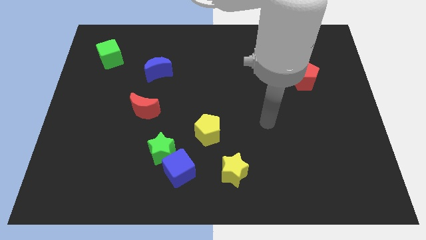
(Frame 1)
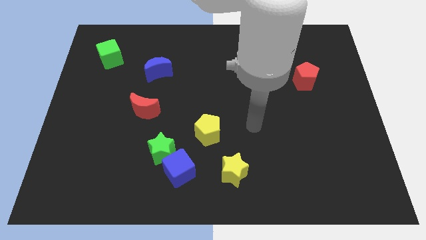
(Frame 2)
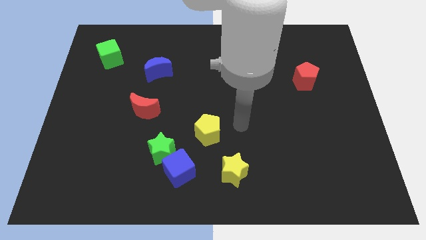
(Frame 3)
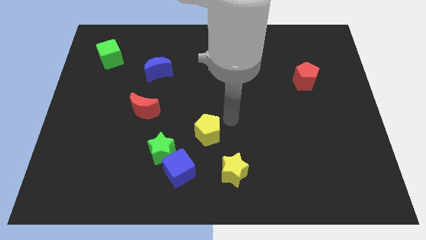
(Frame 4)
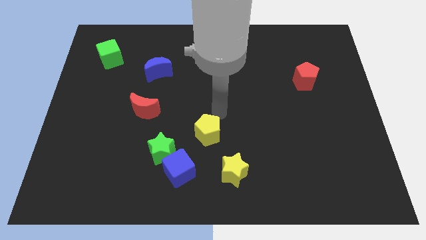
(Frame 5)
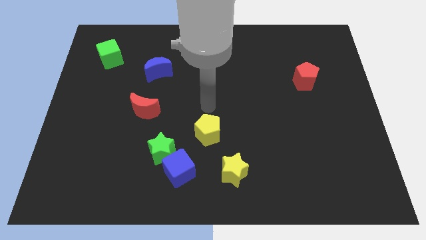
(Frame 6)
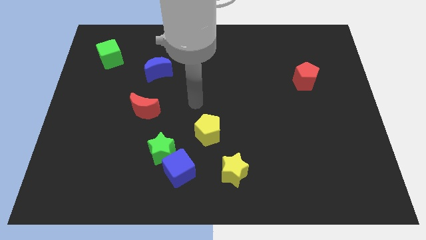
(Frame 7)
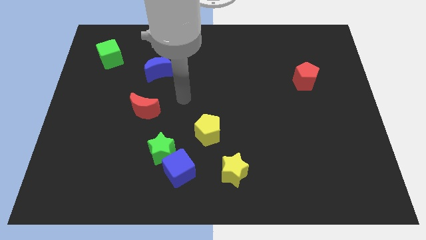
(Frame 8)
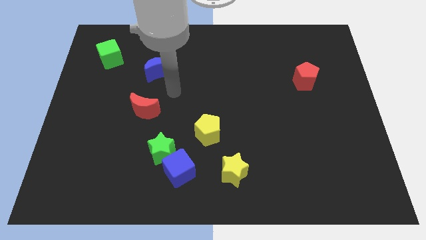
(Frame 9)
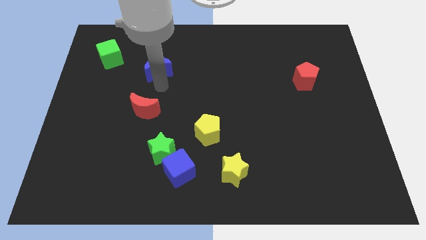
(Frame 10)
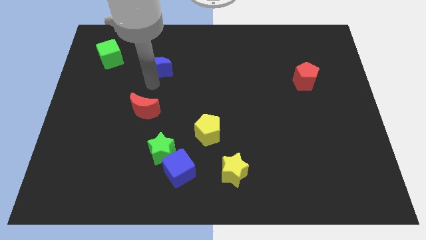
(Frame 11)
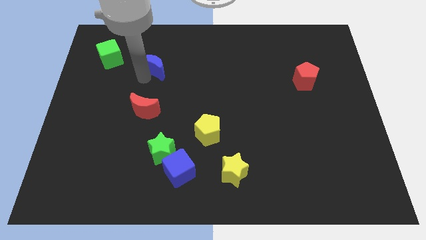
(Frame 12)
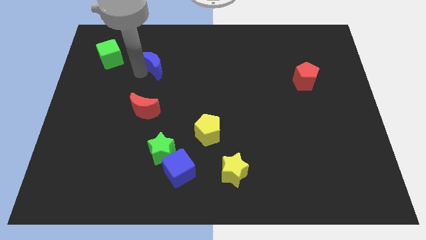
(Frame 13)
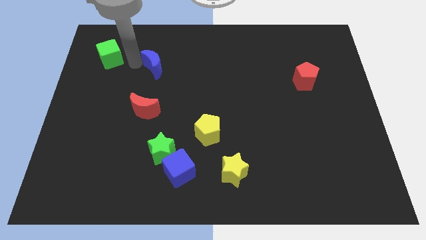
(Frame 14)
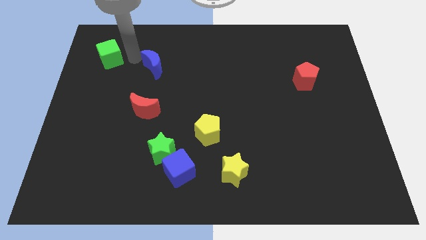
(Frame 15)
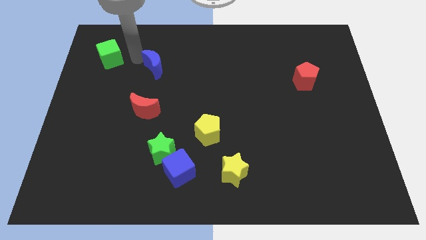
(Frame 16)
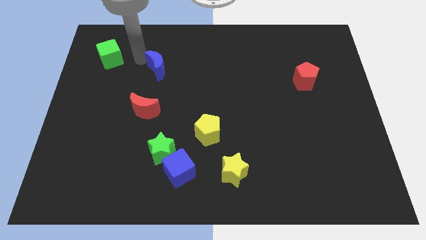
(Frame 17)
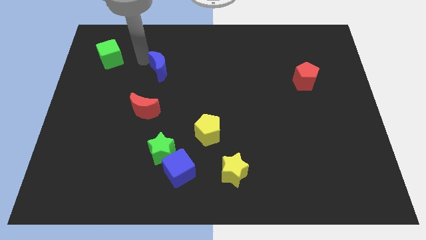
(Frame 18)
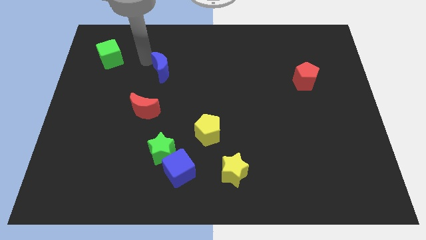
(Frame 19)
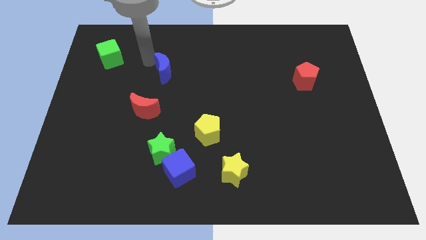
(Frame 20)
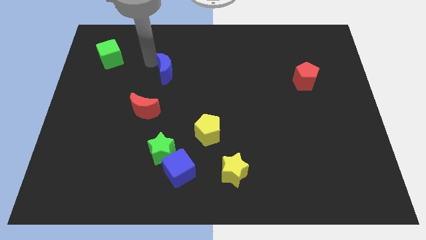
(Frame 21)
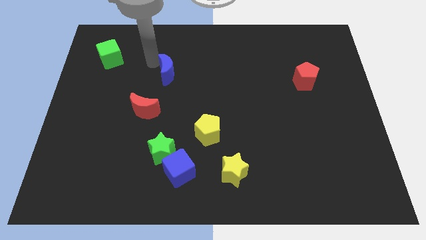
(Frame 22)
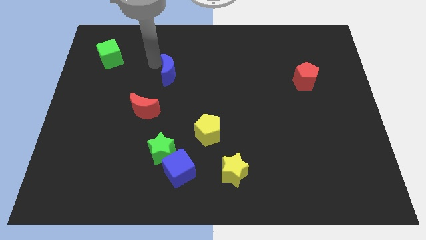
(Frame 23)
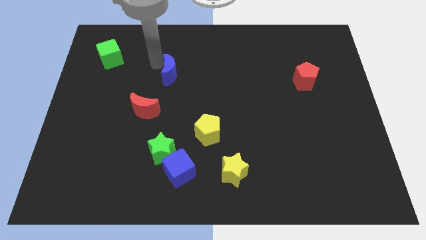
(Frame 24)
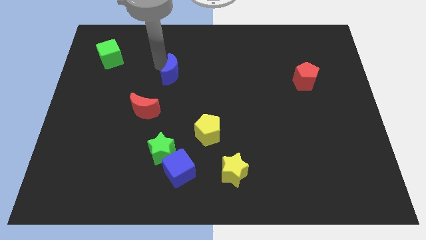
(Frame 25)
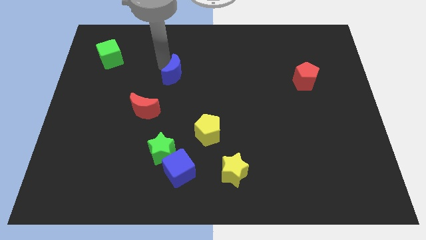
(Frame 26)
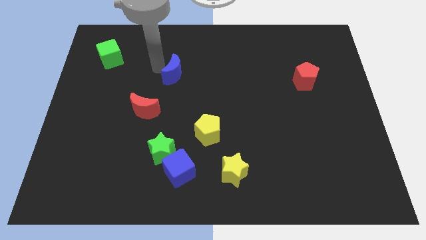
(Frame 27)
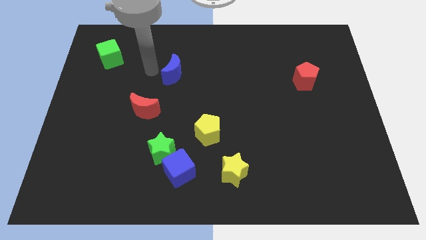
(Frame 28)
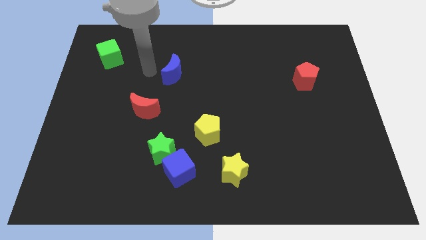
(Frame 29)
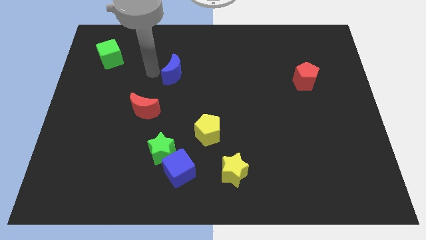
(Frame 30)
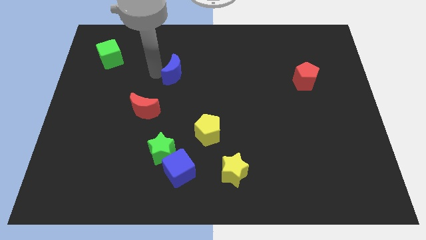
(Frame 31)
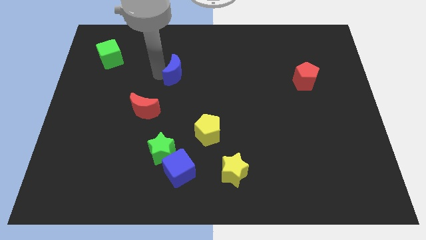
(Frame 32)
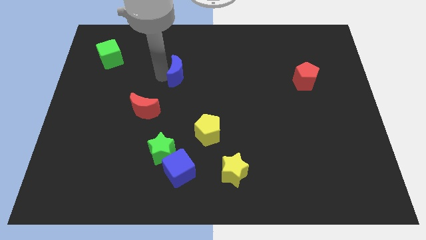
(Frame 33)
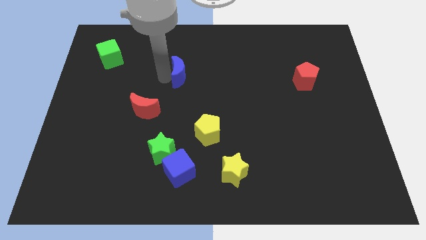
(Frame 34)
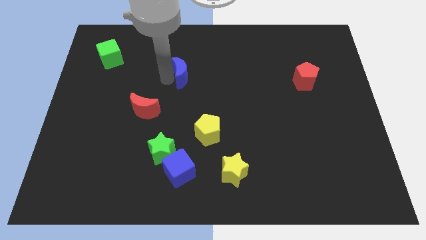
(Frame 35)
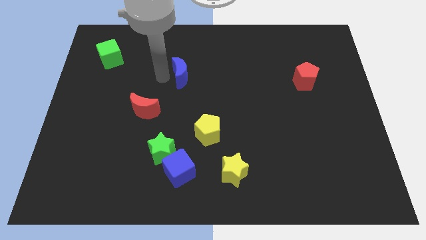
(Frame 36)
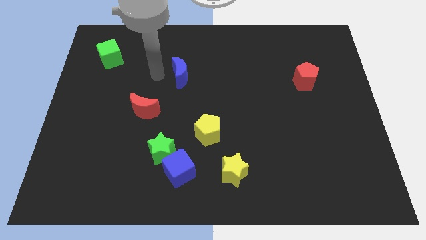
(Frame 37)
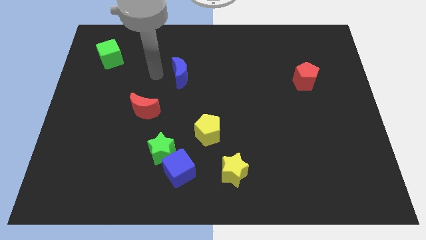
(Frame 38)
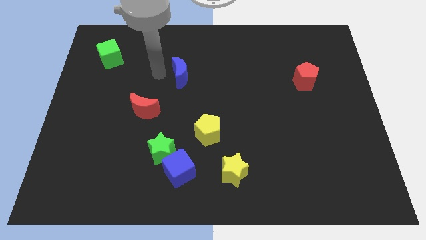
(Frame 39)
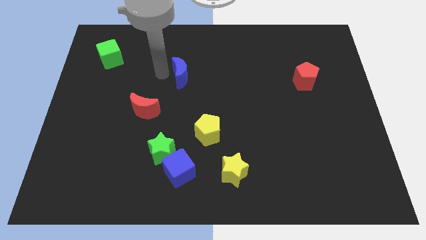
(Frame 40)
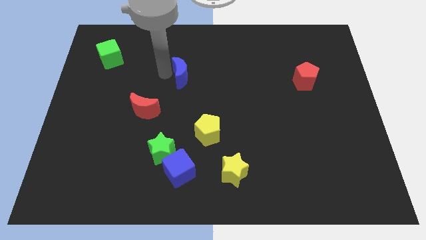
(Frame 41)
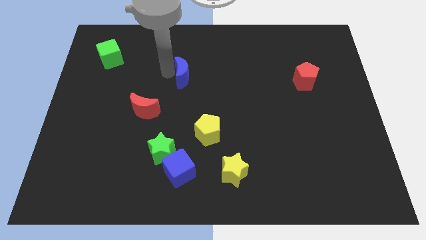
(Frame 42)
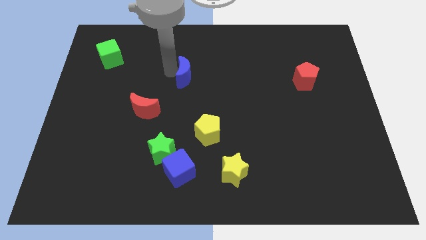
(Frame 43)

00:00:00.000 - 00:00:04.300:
slightly push the blue moon right

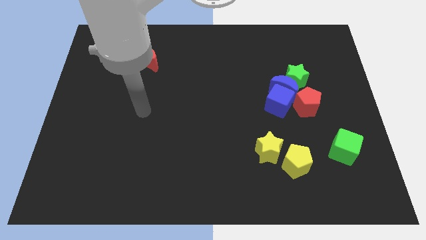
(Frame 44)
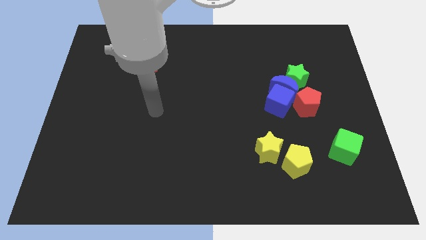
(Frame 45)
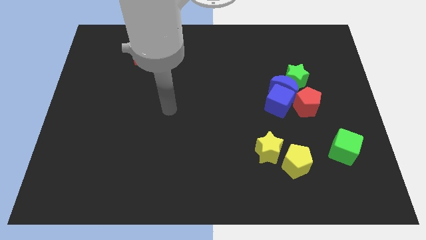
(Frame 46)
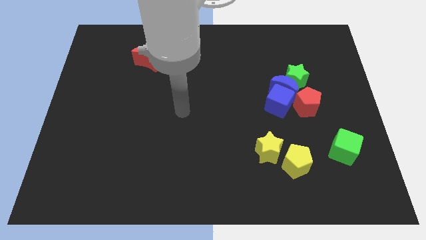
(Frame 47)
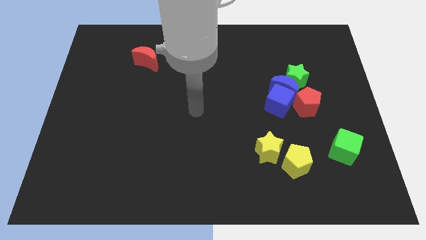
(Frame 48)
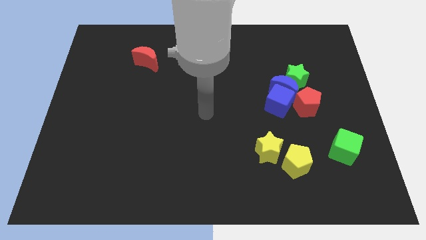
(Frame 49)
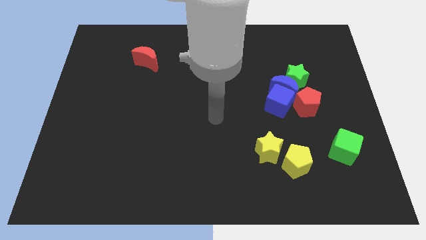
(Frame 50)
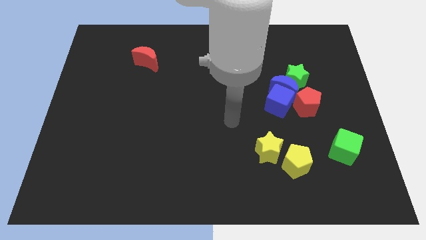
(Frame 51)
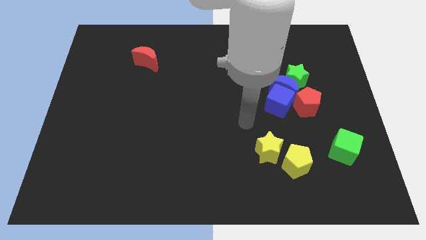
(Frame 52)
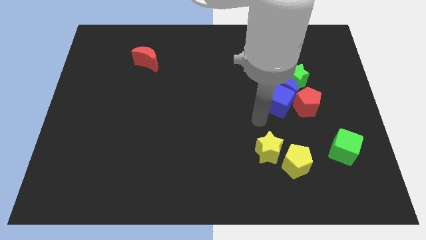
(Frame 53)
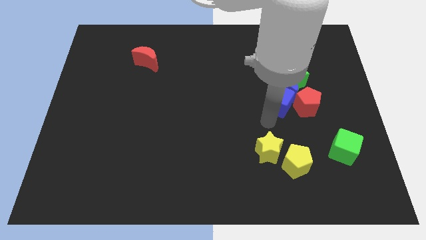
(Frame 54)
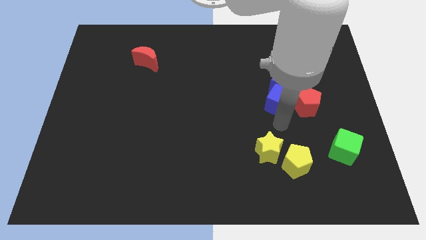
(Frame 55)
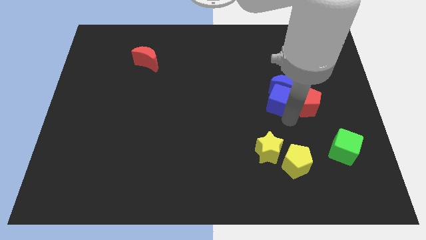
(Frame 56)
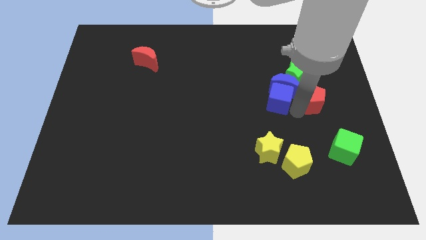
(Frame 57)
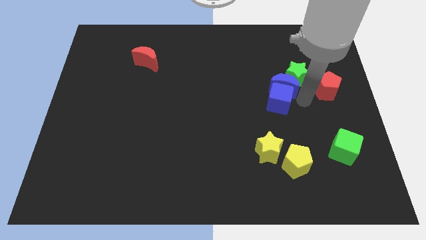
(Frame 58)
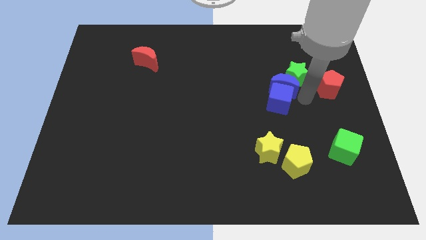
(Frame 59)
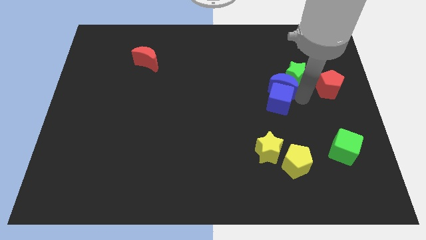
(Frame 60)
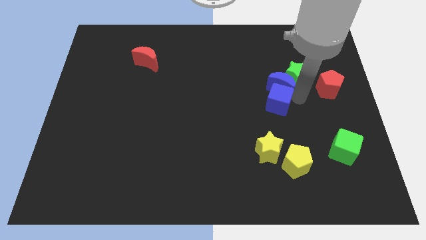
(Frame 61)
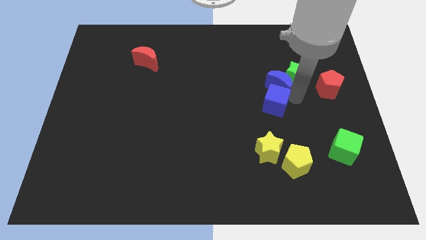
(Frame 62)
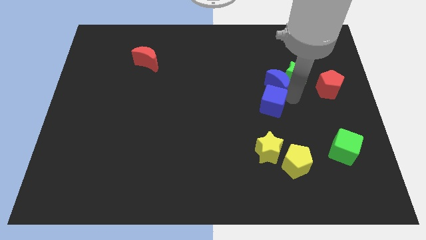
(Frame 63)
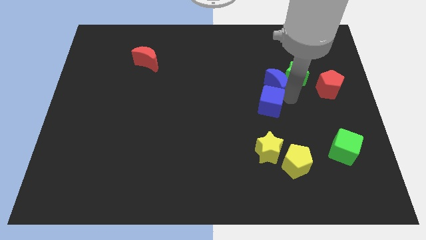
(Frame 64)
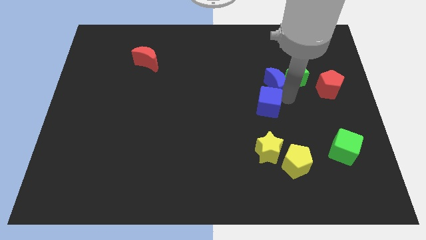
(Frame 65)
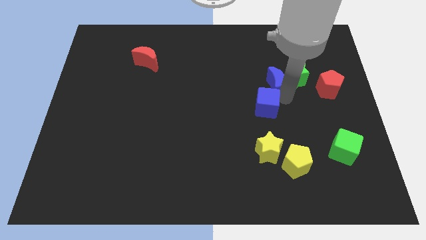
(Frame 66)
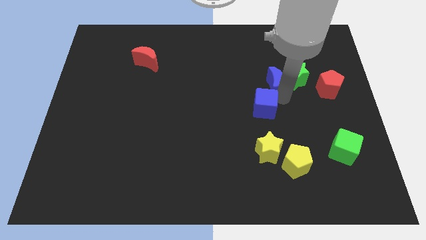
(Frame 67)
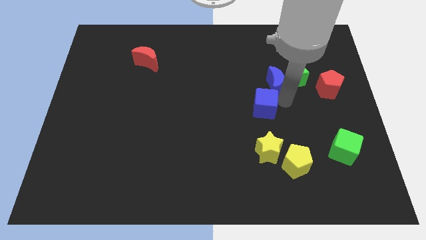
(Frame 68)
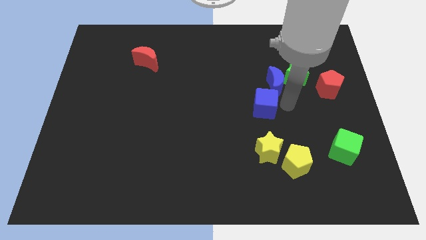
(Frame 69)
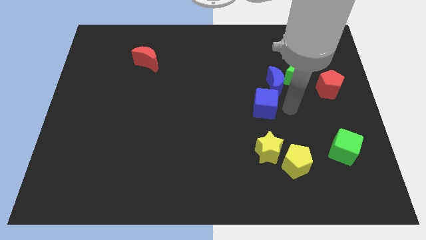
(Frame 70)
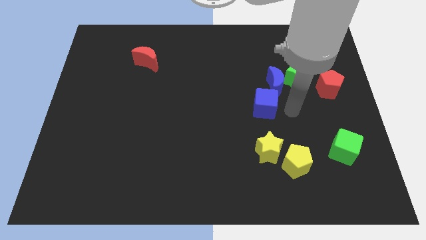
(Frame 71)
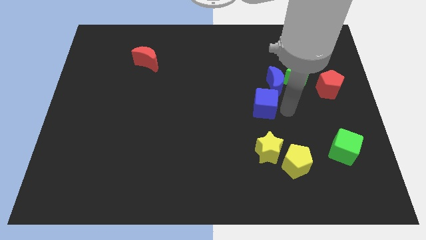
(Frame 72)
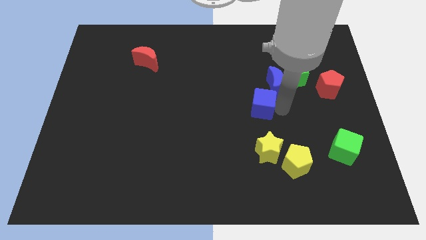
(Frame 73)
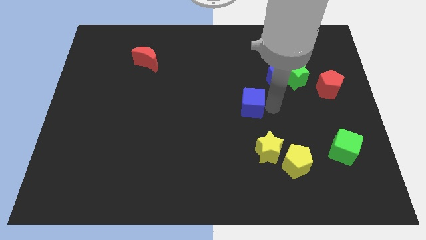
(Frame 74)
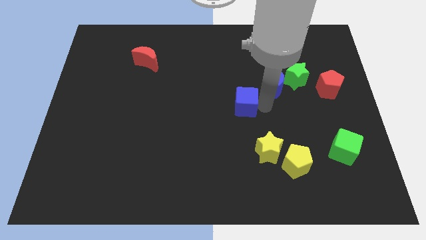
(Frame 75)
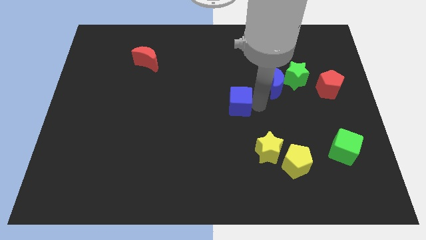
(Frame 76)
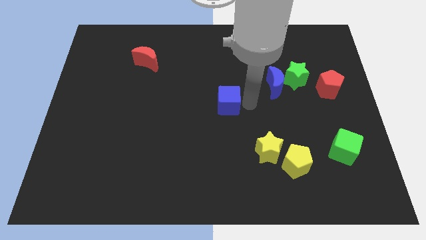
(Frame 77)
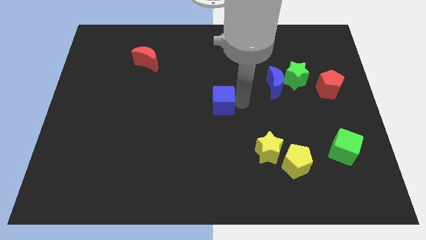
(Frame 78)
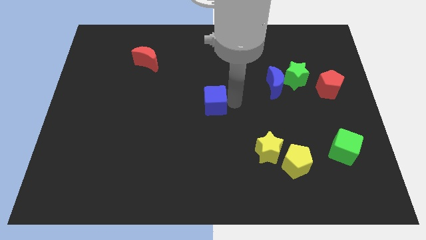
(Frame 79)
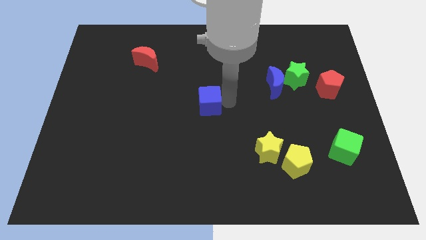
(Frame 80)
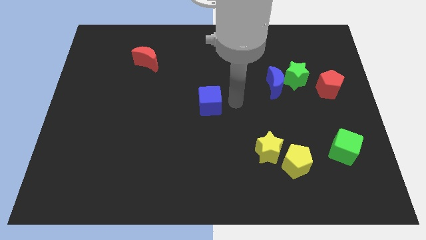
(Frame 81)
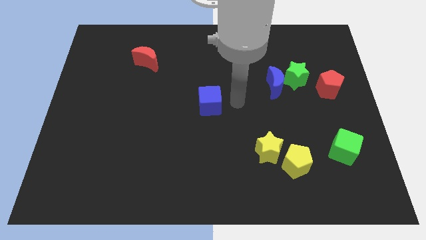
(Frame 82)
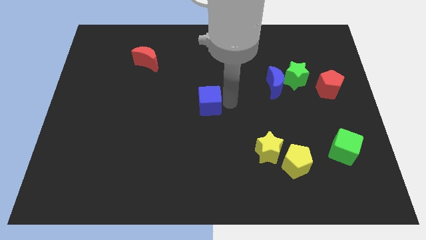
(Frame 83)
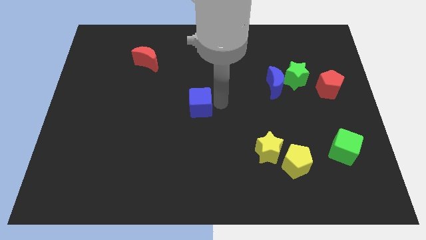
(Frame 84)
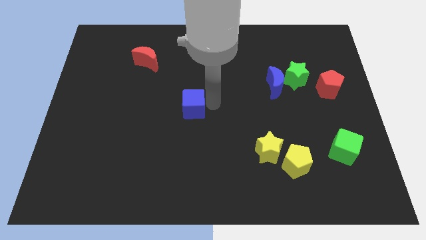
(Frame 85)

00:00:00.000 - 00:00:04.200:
push the blue cube left
